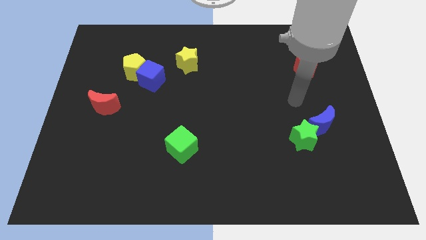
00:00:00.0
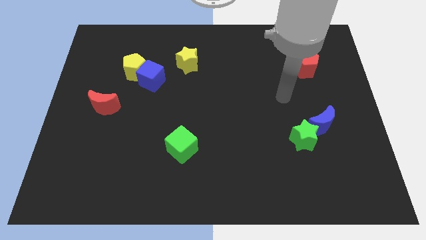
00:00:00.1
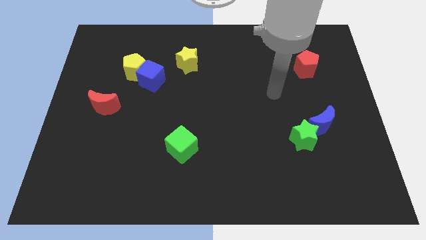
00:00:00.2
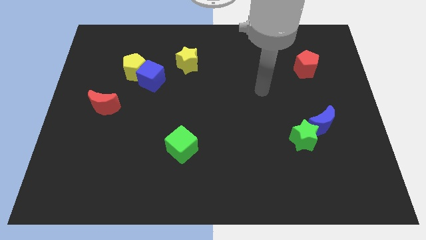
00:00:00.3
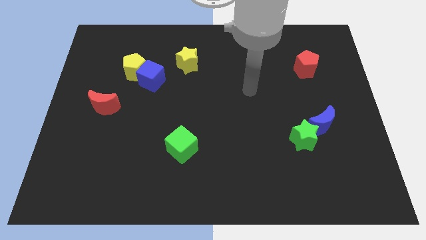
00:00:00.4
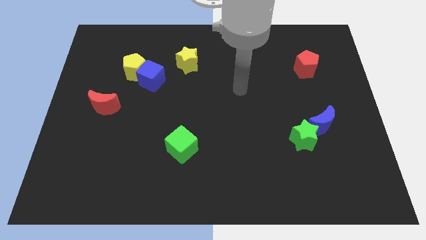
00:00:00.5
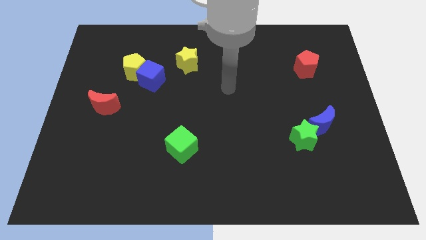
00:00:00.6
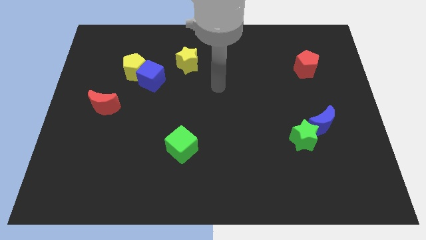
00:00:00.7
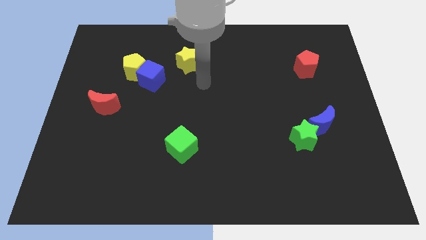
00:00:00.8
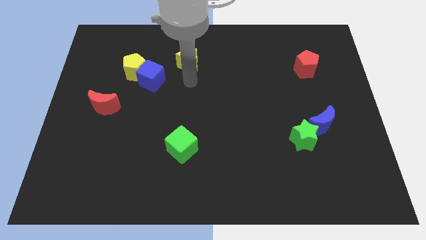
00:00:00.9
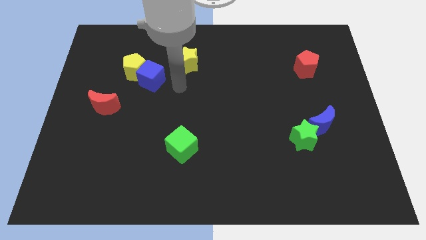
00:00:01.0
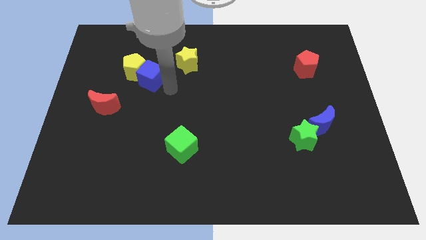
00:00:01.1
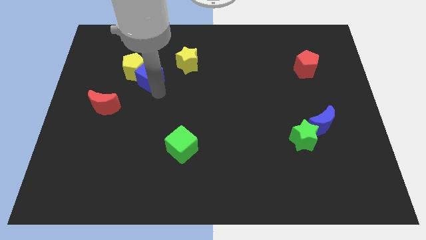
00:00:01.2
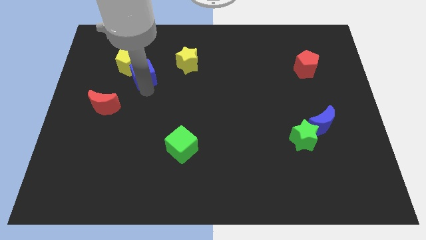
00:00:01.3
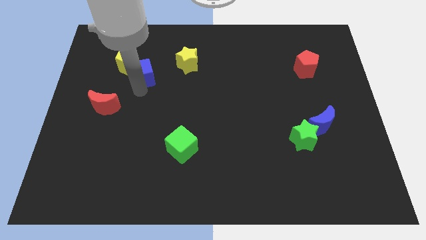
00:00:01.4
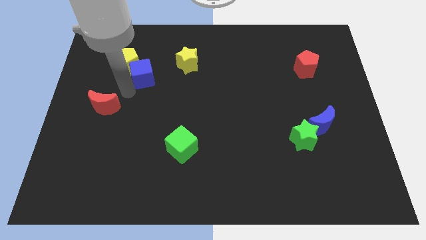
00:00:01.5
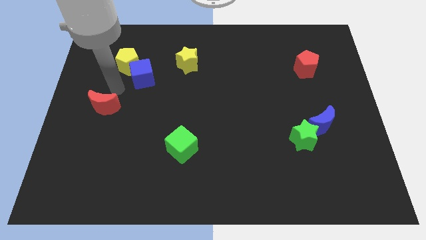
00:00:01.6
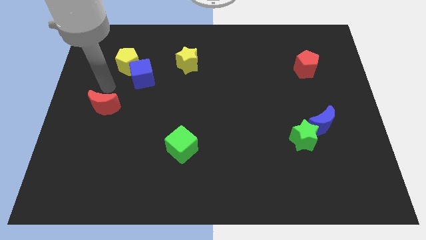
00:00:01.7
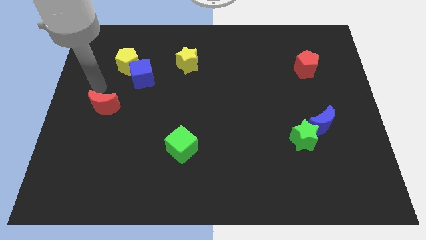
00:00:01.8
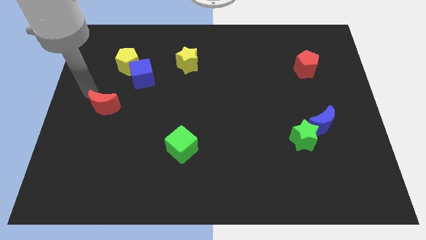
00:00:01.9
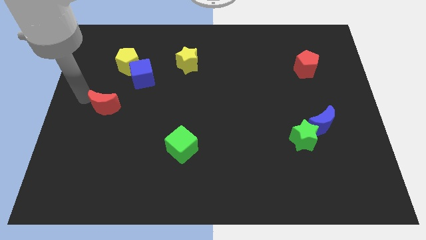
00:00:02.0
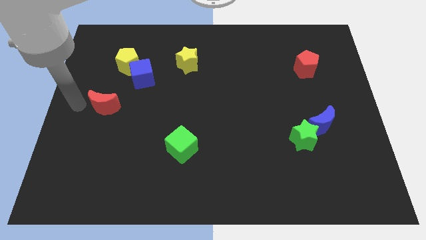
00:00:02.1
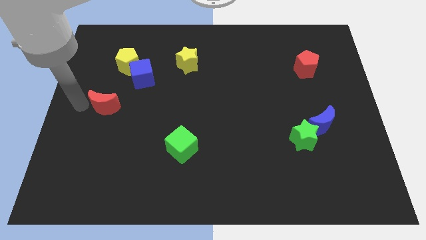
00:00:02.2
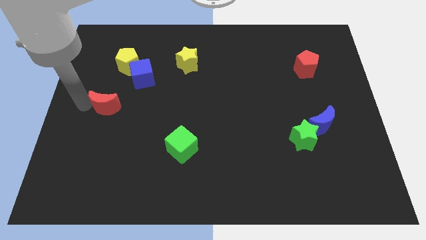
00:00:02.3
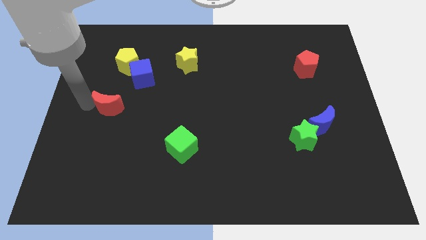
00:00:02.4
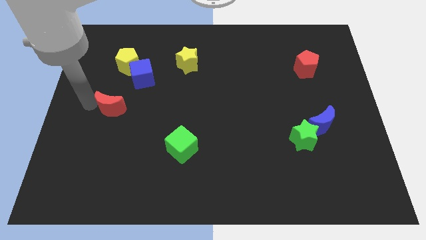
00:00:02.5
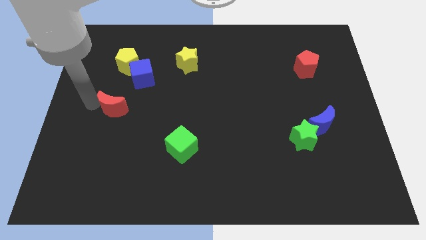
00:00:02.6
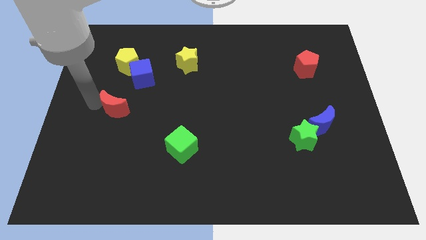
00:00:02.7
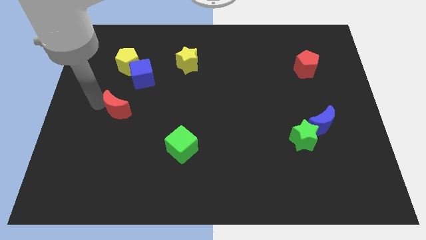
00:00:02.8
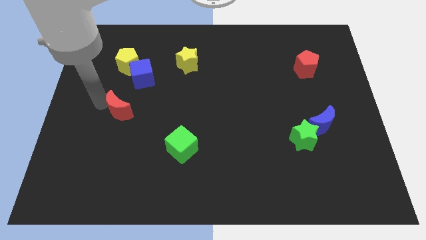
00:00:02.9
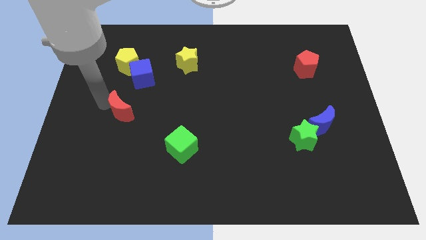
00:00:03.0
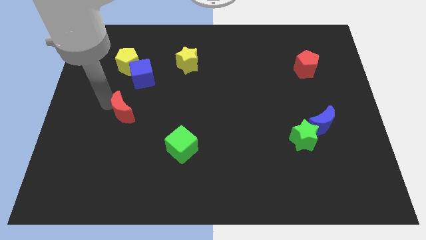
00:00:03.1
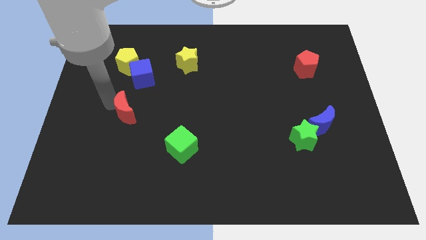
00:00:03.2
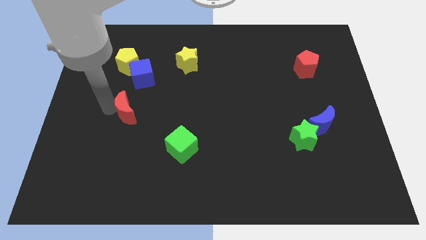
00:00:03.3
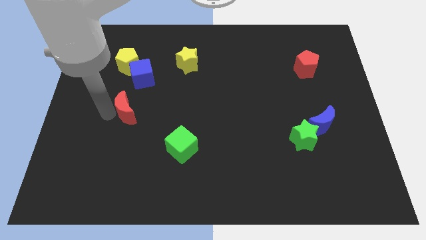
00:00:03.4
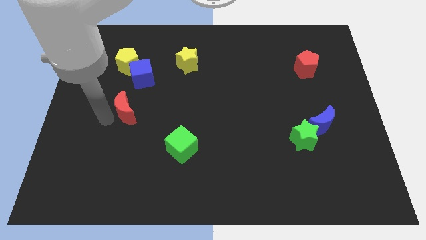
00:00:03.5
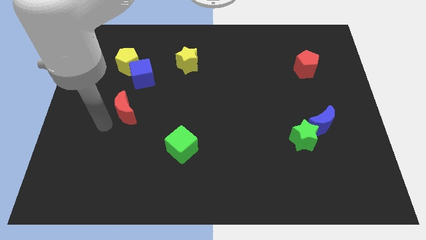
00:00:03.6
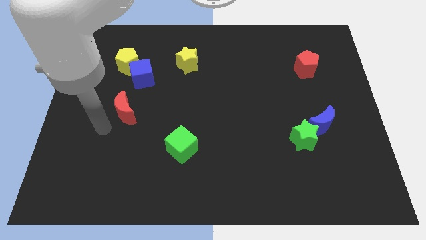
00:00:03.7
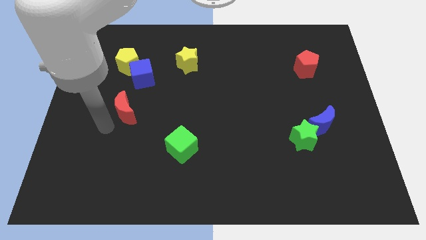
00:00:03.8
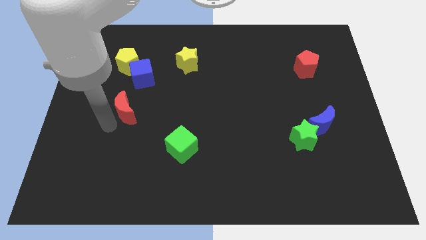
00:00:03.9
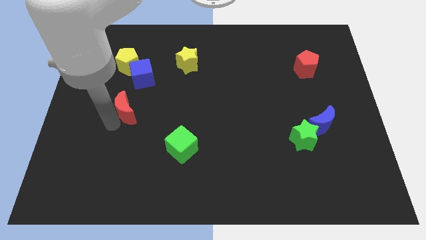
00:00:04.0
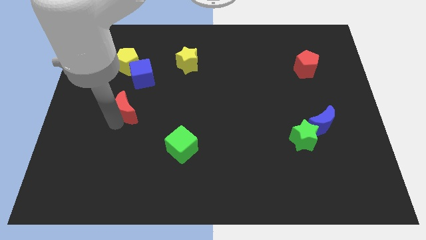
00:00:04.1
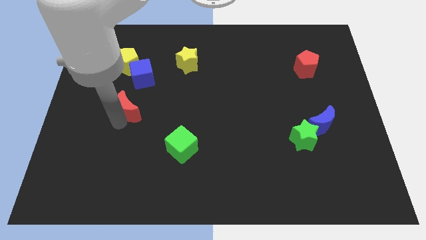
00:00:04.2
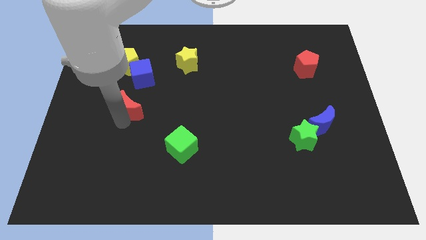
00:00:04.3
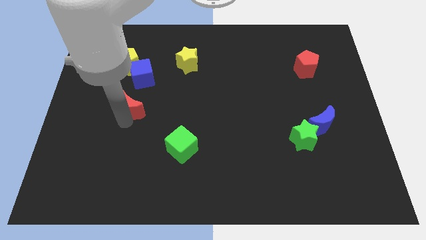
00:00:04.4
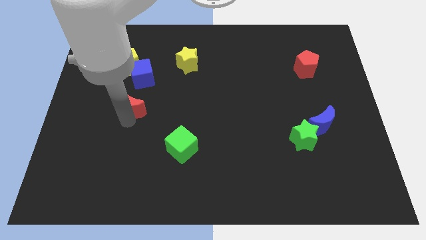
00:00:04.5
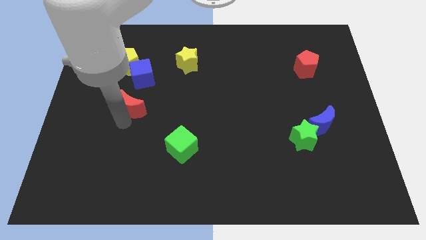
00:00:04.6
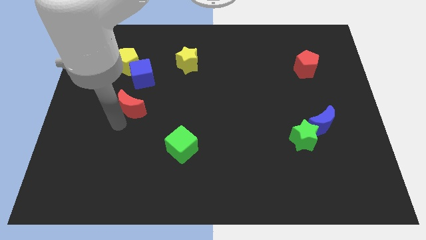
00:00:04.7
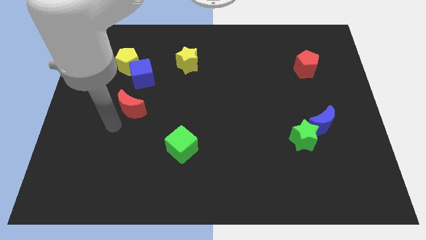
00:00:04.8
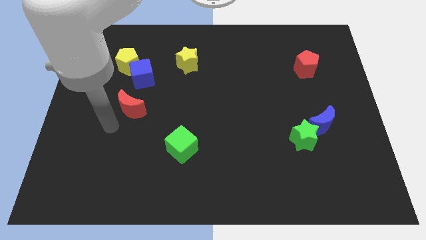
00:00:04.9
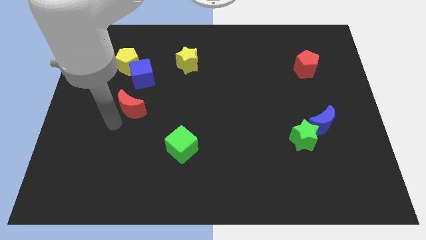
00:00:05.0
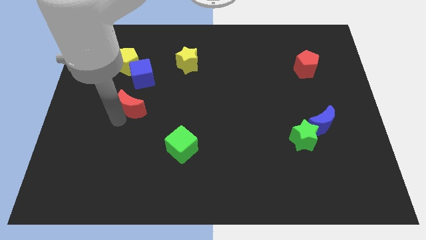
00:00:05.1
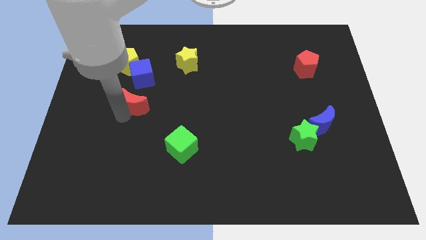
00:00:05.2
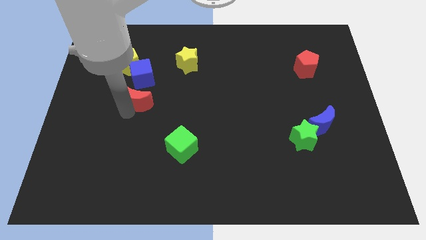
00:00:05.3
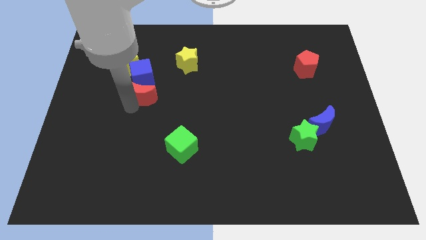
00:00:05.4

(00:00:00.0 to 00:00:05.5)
push the red moon up and to the right diagonally a little

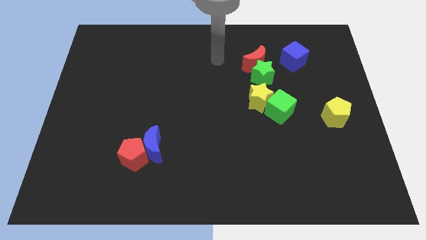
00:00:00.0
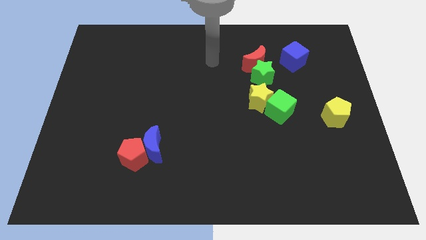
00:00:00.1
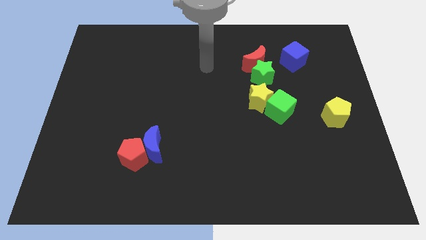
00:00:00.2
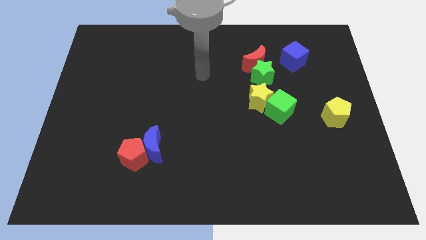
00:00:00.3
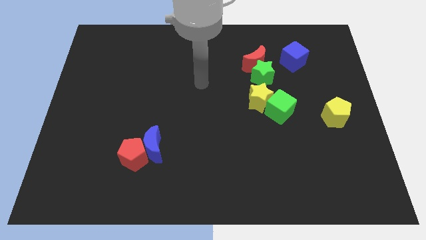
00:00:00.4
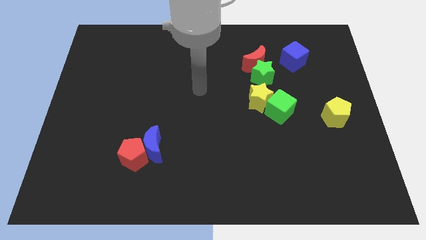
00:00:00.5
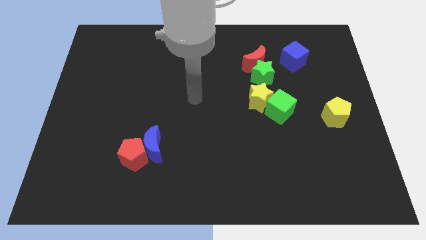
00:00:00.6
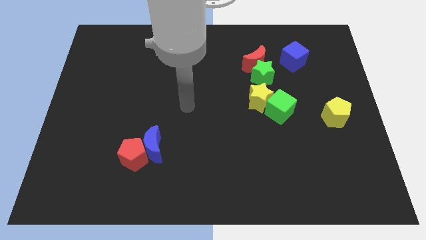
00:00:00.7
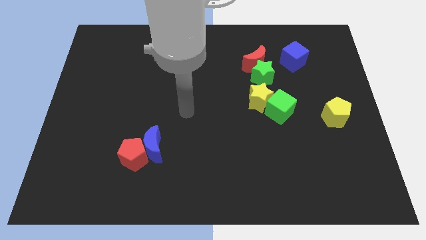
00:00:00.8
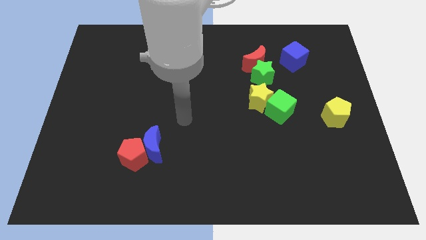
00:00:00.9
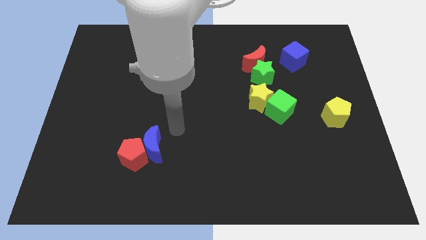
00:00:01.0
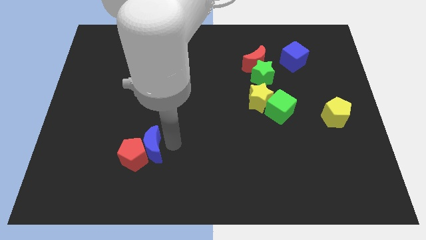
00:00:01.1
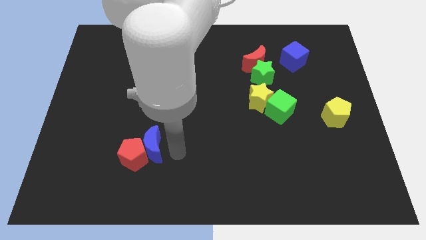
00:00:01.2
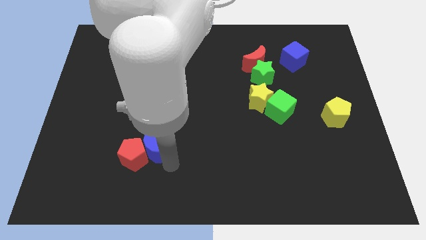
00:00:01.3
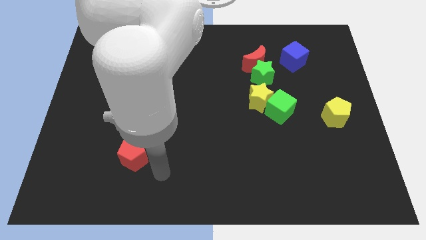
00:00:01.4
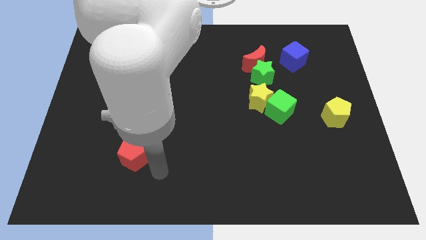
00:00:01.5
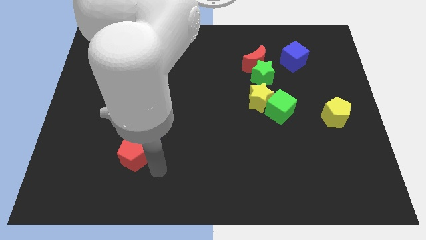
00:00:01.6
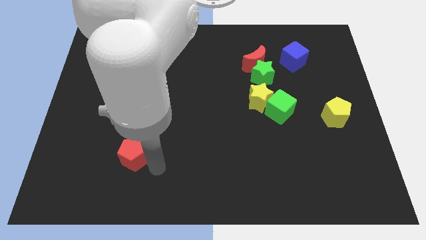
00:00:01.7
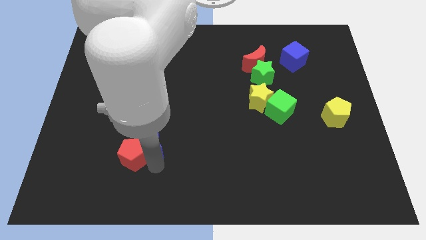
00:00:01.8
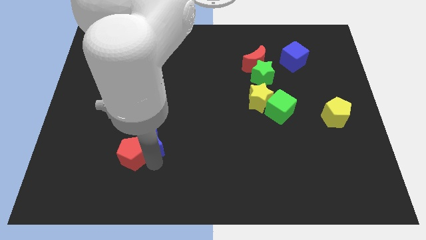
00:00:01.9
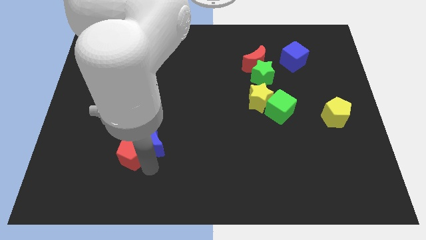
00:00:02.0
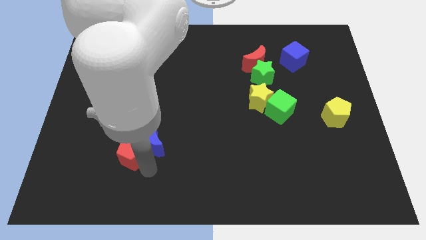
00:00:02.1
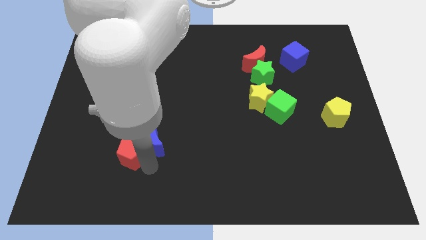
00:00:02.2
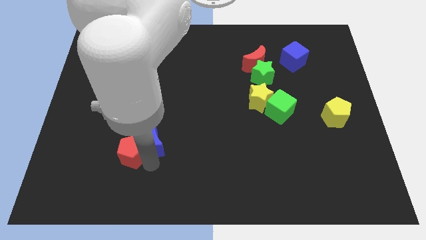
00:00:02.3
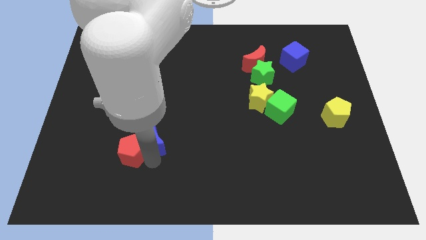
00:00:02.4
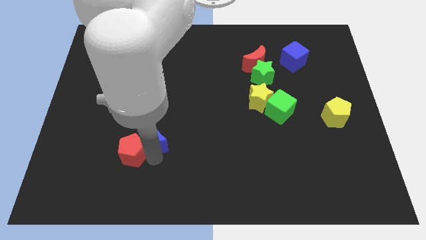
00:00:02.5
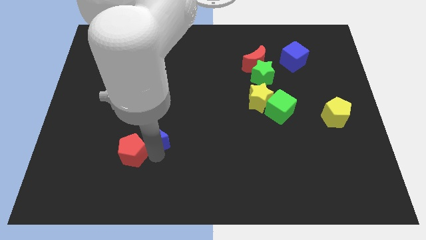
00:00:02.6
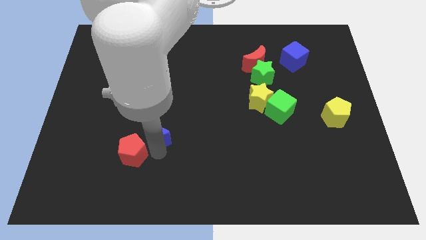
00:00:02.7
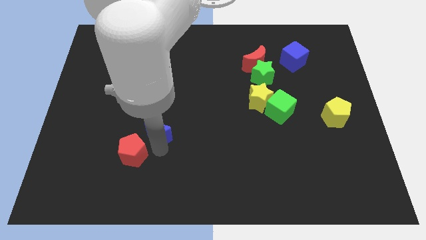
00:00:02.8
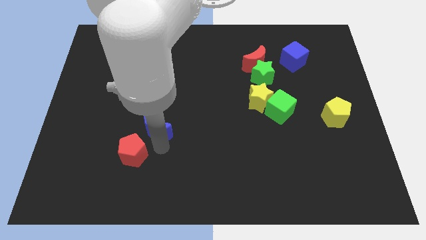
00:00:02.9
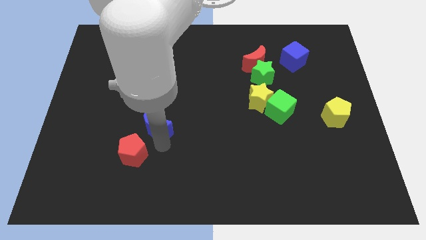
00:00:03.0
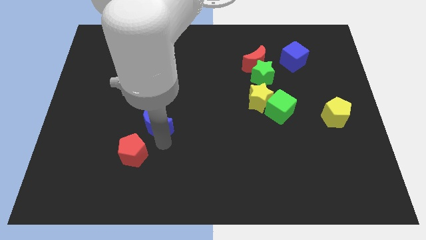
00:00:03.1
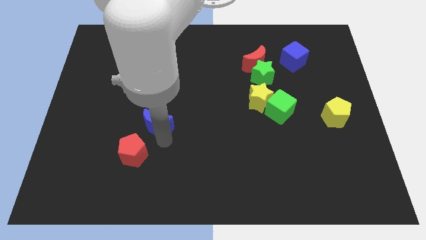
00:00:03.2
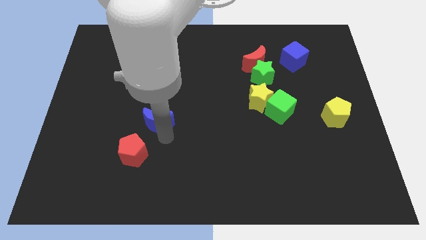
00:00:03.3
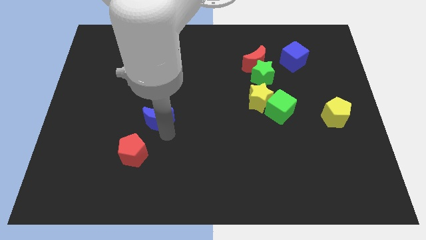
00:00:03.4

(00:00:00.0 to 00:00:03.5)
move the blue moon up a bit
